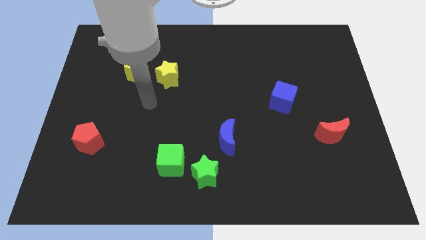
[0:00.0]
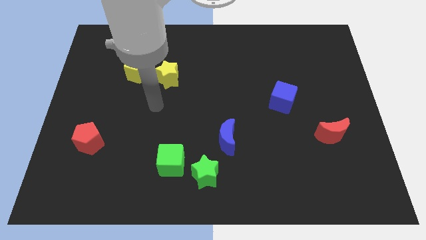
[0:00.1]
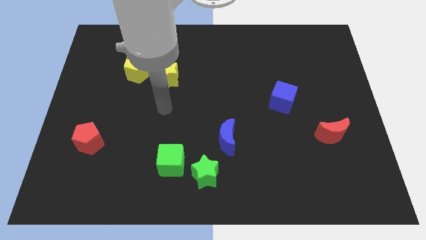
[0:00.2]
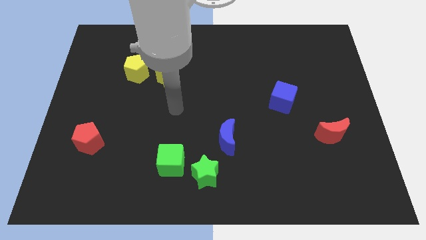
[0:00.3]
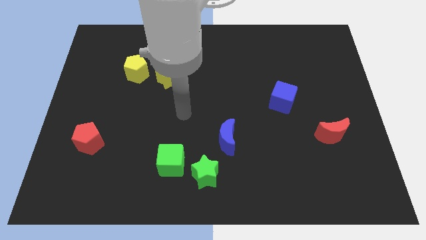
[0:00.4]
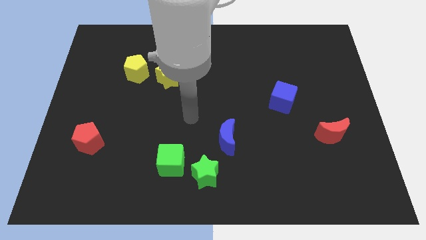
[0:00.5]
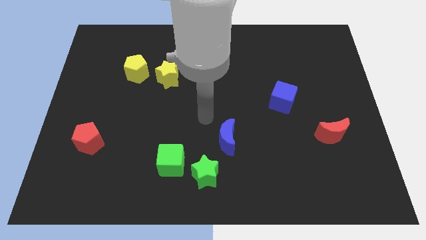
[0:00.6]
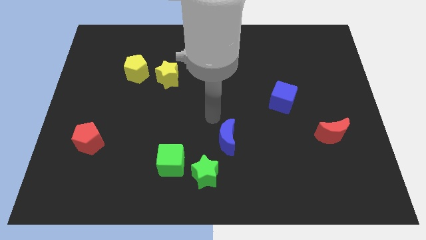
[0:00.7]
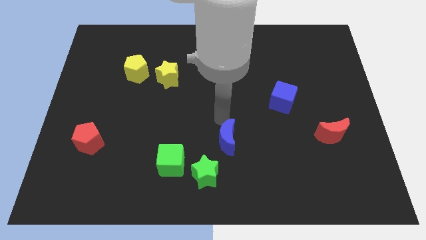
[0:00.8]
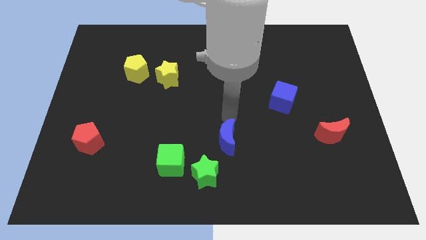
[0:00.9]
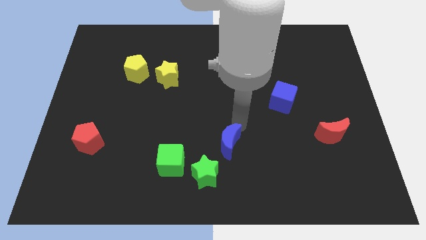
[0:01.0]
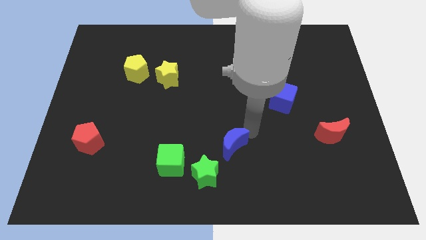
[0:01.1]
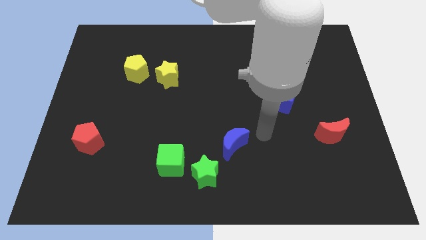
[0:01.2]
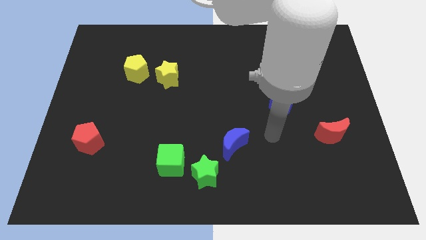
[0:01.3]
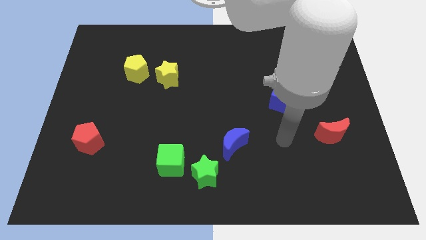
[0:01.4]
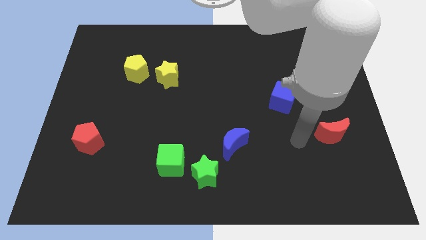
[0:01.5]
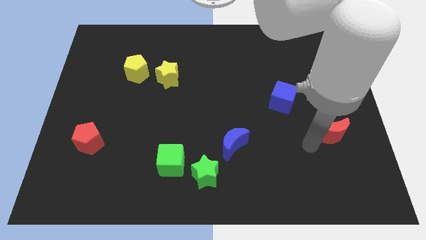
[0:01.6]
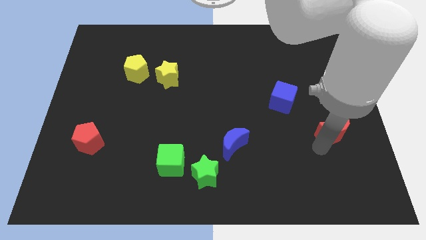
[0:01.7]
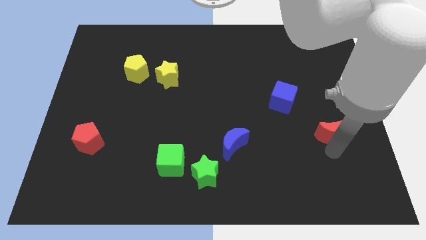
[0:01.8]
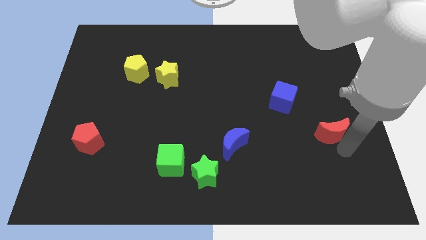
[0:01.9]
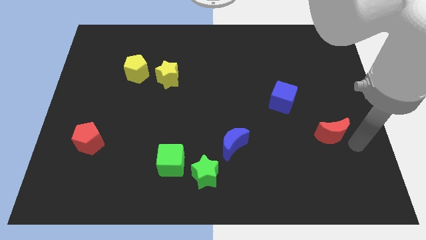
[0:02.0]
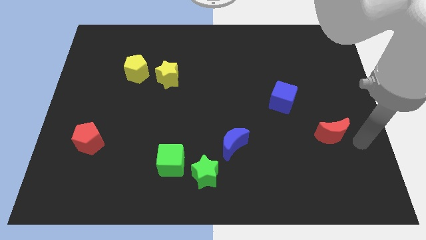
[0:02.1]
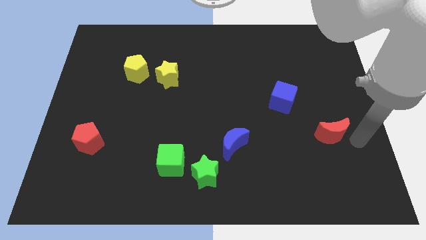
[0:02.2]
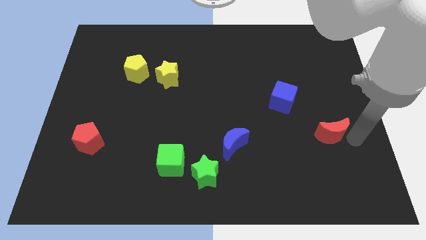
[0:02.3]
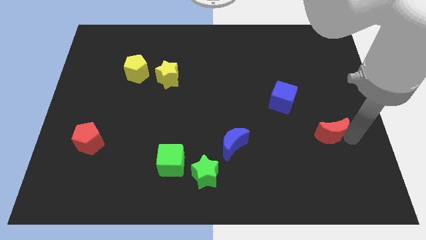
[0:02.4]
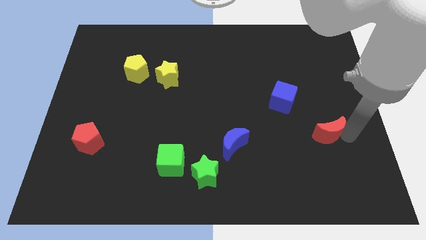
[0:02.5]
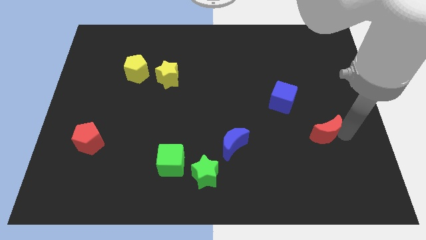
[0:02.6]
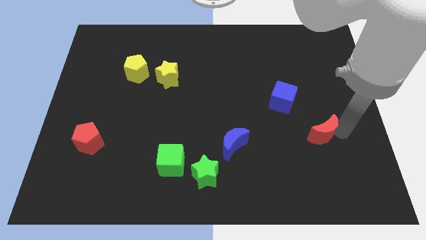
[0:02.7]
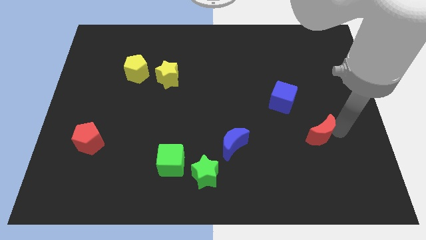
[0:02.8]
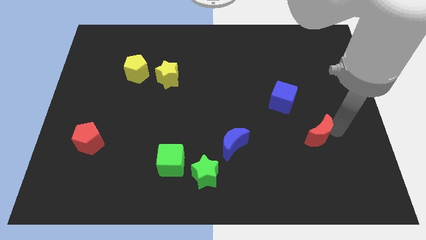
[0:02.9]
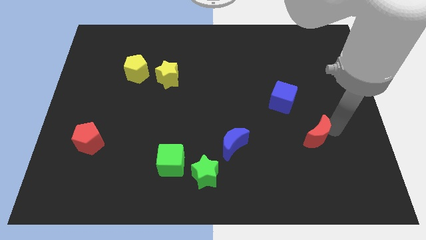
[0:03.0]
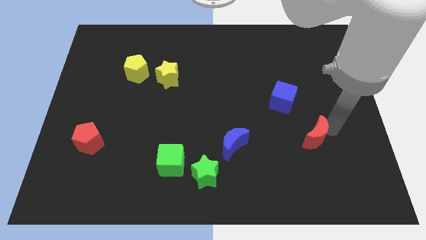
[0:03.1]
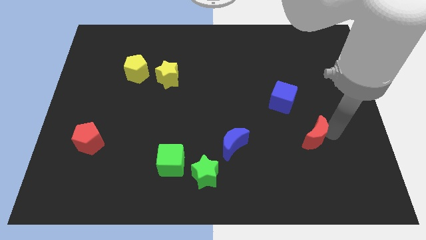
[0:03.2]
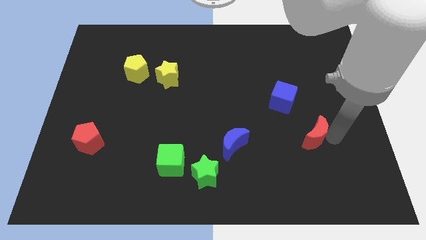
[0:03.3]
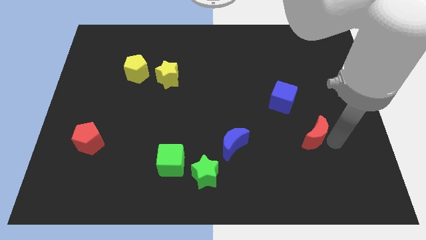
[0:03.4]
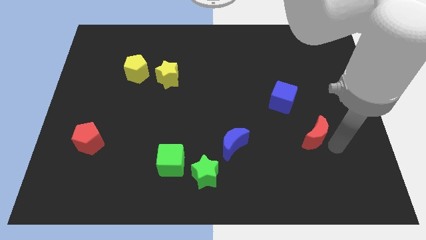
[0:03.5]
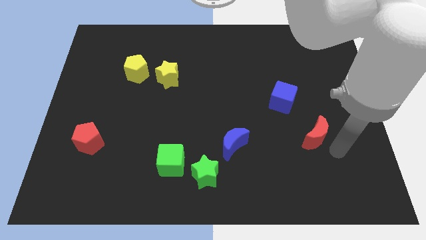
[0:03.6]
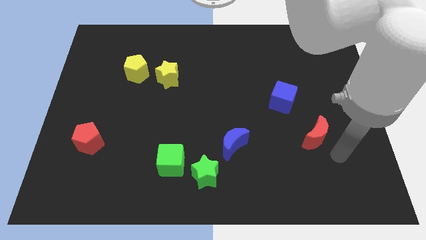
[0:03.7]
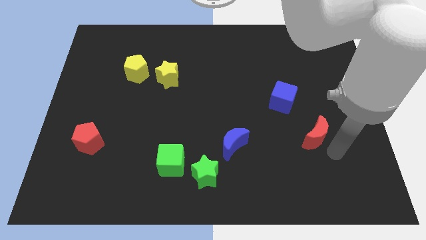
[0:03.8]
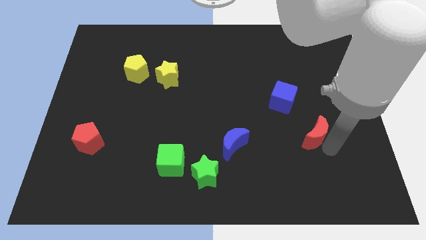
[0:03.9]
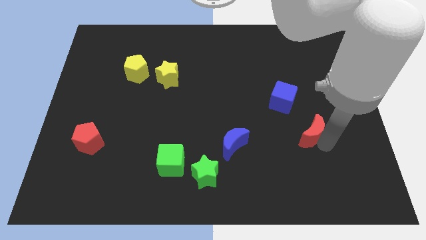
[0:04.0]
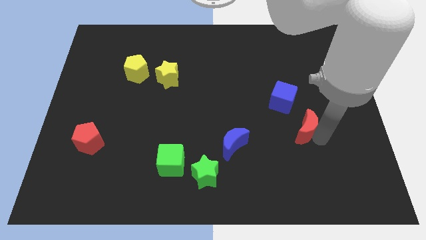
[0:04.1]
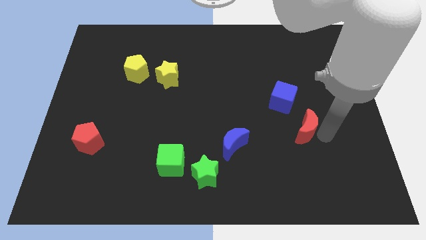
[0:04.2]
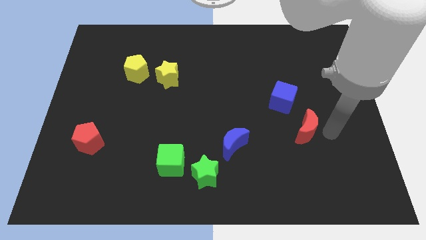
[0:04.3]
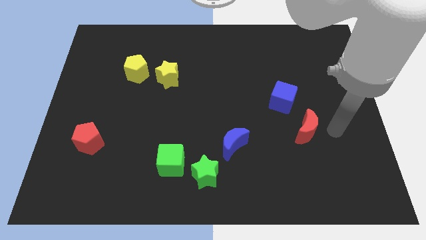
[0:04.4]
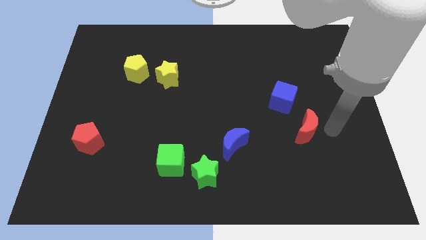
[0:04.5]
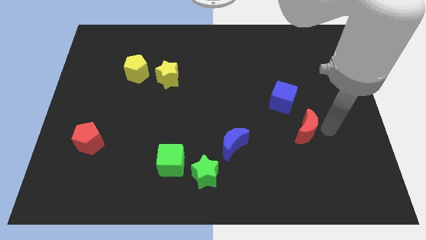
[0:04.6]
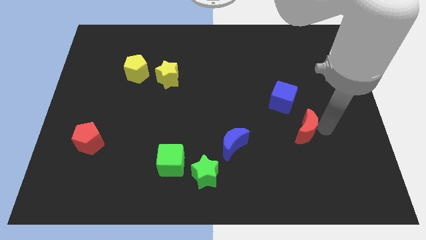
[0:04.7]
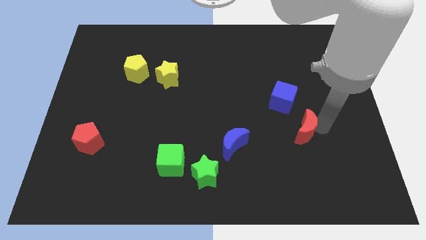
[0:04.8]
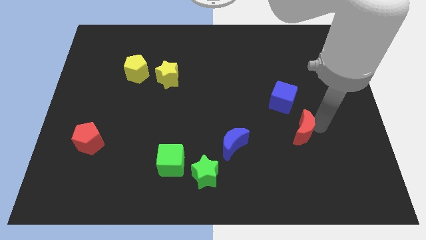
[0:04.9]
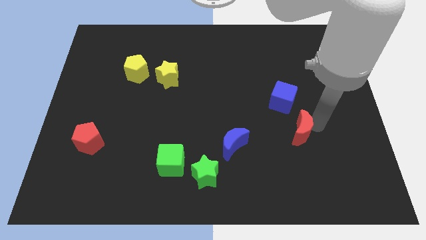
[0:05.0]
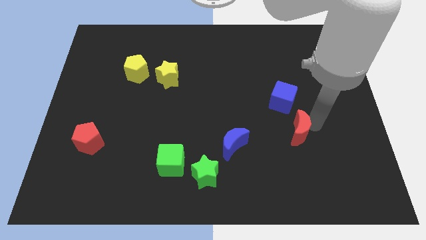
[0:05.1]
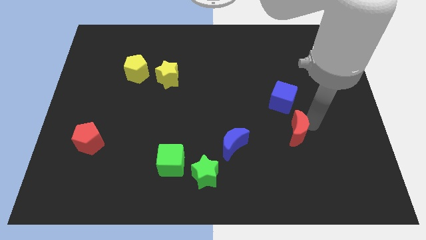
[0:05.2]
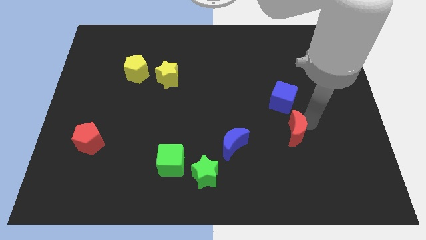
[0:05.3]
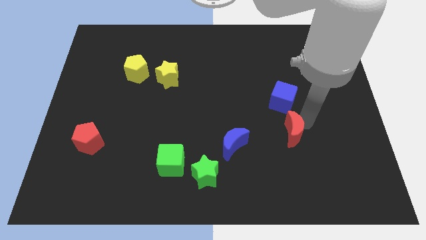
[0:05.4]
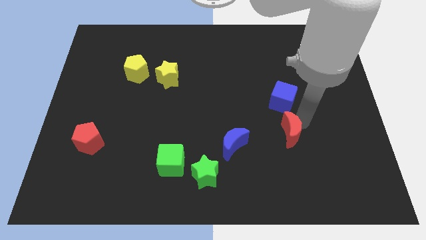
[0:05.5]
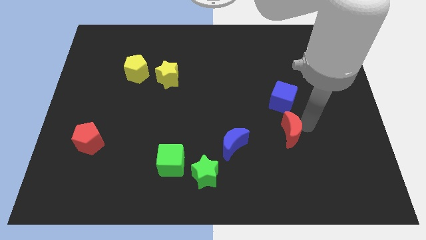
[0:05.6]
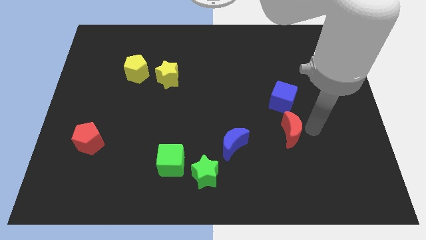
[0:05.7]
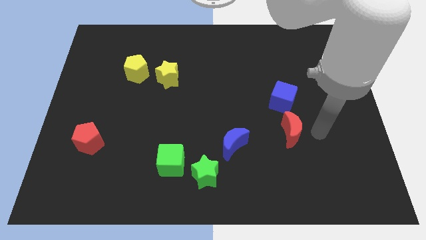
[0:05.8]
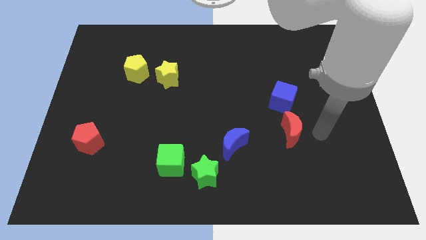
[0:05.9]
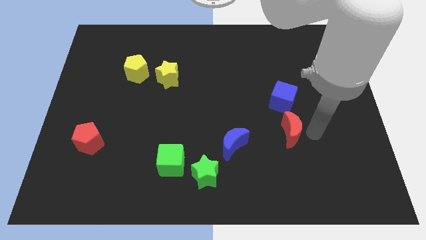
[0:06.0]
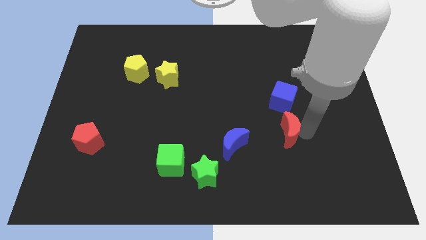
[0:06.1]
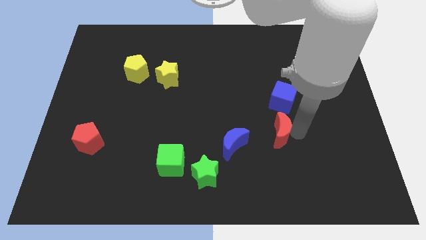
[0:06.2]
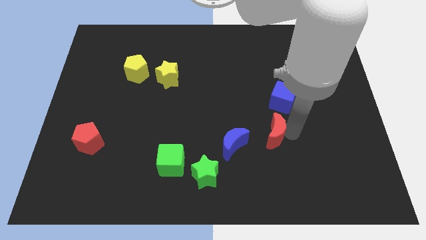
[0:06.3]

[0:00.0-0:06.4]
push the red moon diagonally up and to the right of the blue moon

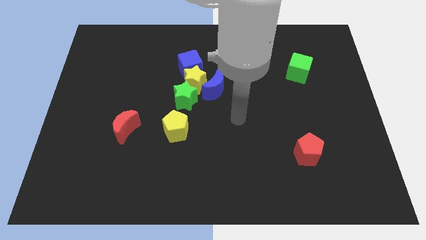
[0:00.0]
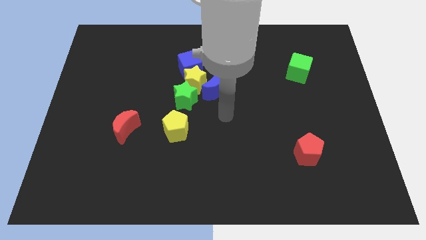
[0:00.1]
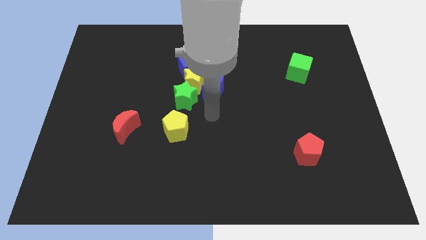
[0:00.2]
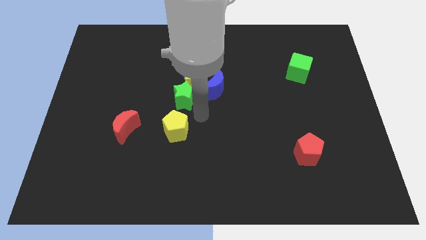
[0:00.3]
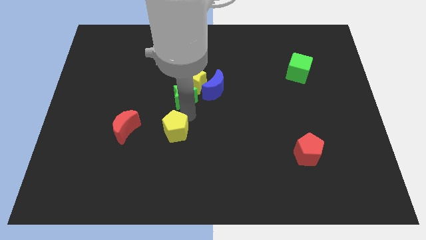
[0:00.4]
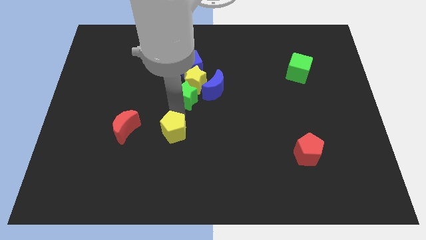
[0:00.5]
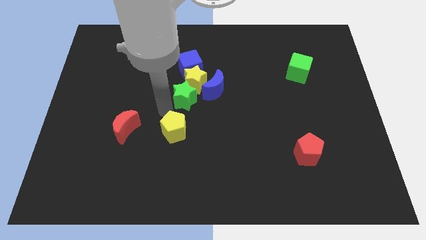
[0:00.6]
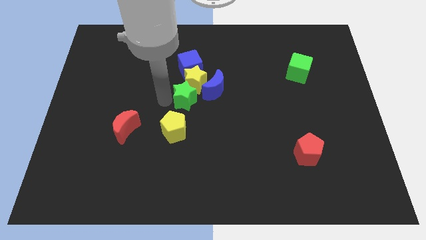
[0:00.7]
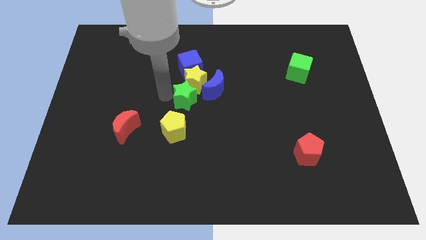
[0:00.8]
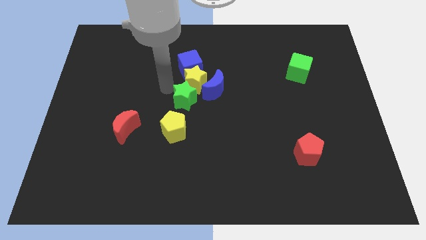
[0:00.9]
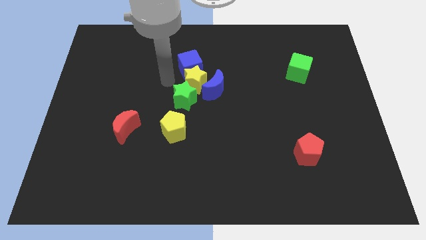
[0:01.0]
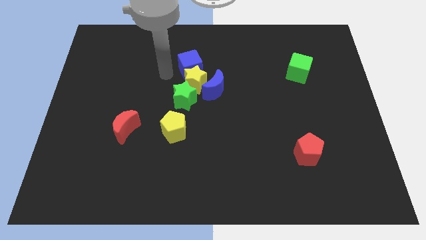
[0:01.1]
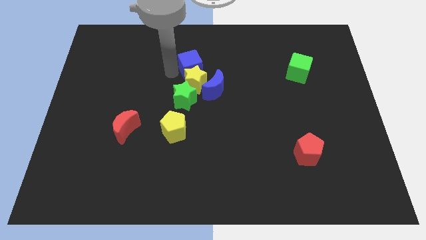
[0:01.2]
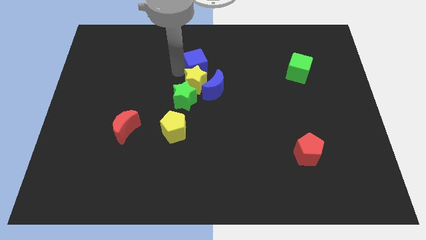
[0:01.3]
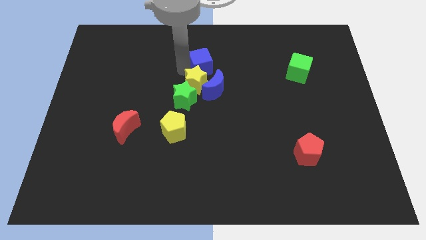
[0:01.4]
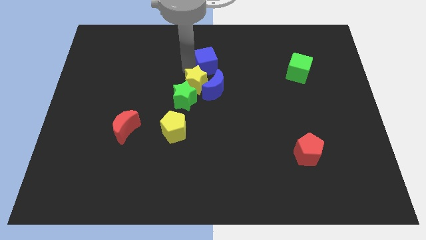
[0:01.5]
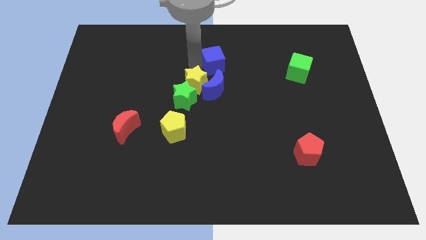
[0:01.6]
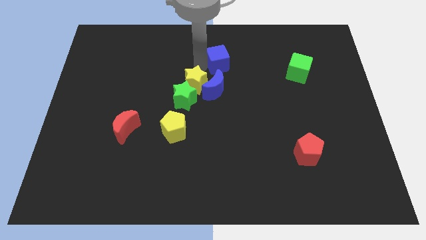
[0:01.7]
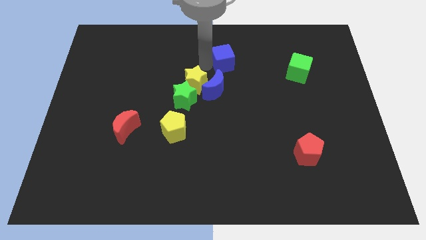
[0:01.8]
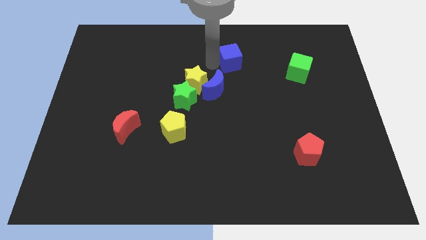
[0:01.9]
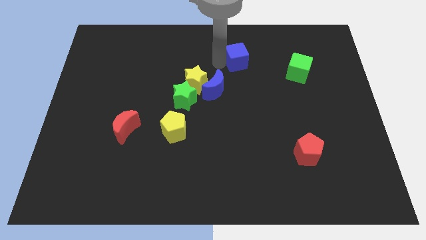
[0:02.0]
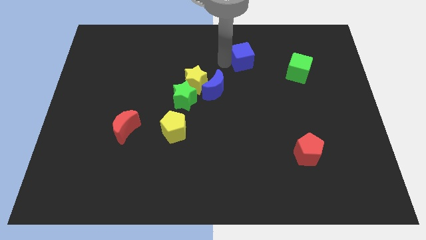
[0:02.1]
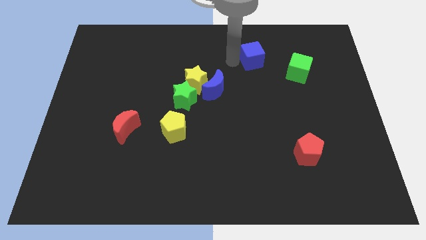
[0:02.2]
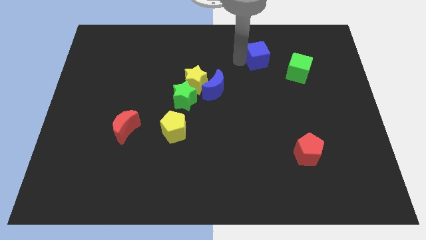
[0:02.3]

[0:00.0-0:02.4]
slide the blue cube to the top left of the green cube
